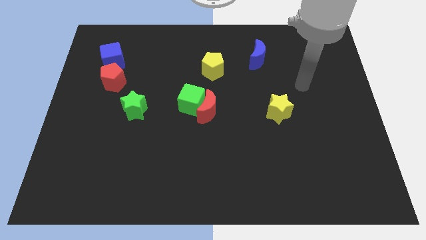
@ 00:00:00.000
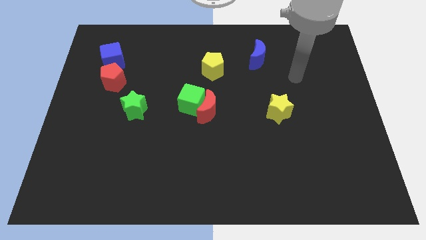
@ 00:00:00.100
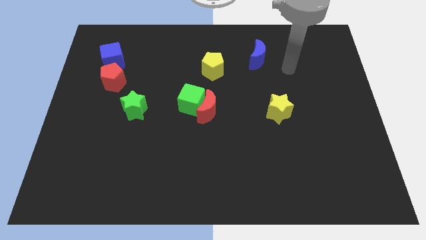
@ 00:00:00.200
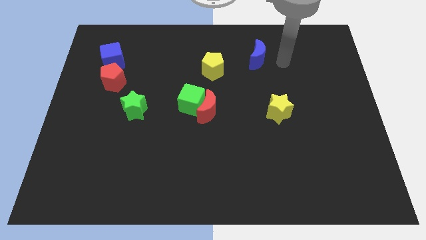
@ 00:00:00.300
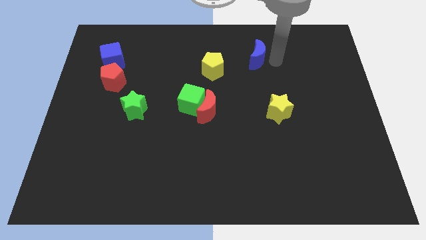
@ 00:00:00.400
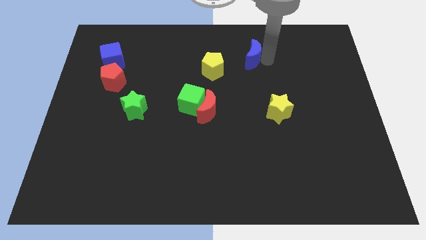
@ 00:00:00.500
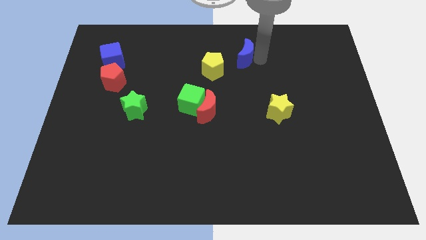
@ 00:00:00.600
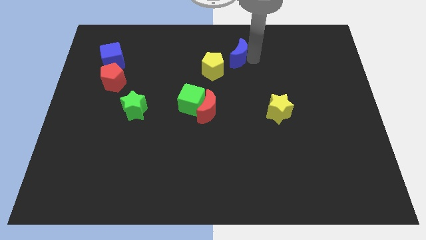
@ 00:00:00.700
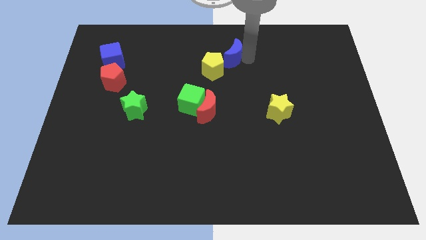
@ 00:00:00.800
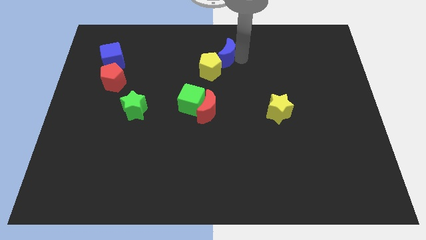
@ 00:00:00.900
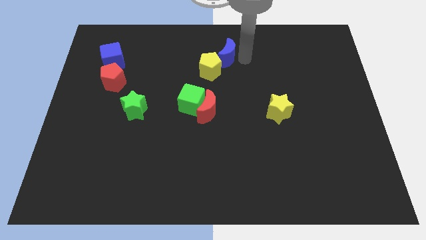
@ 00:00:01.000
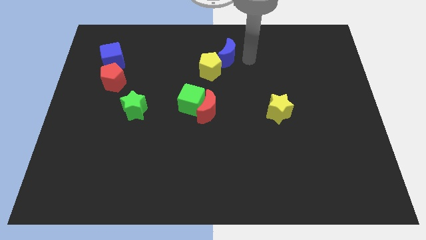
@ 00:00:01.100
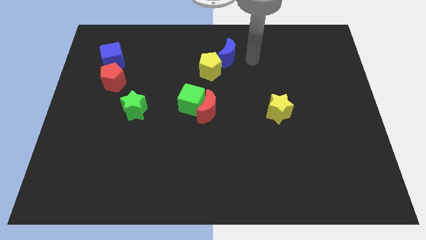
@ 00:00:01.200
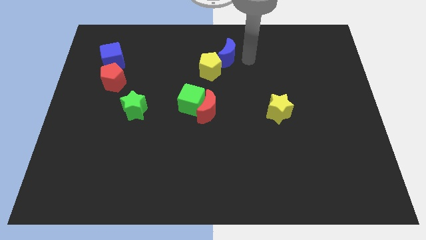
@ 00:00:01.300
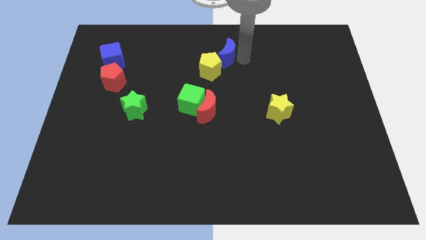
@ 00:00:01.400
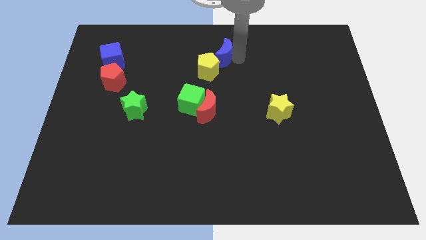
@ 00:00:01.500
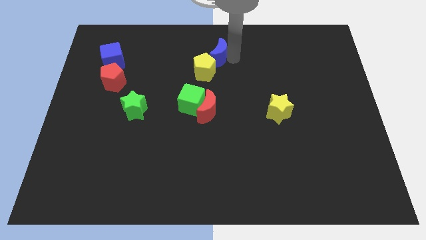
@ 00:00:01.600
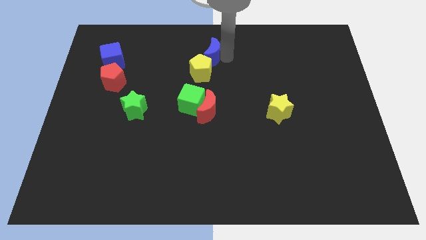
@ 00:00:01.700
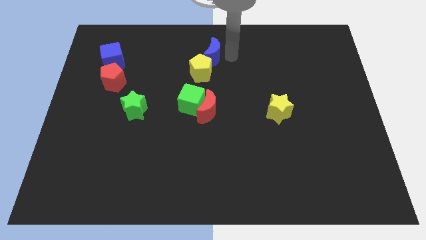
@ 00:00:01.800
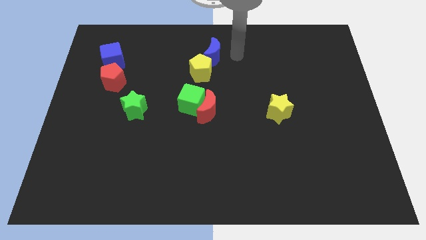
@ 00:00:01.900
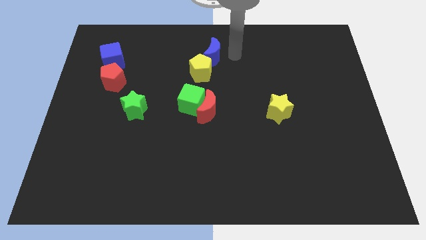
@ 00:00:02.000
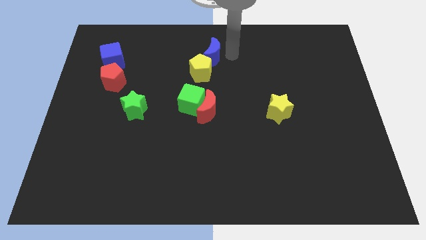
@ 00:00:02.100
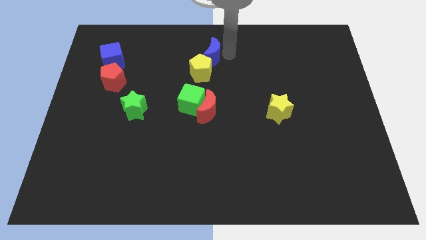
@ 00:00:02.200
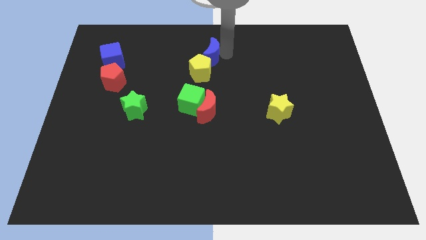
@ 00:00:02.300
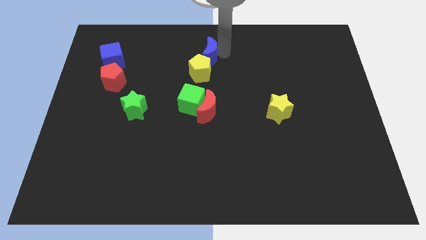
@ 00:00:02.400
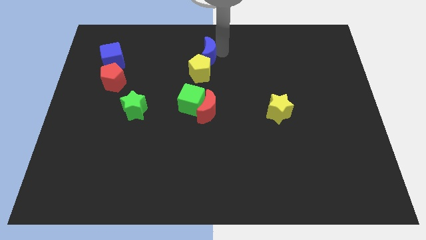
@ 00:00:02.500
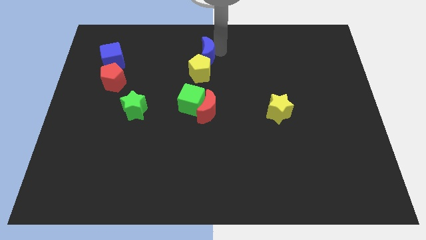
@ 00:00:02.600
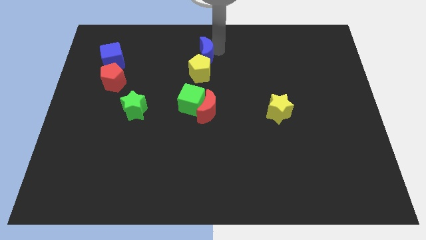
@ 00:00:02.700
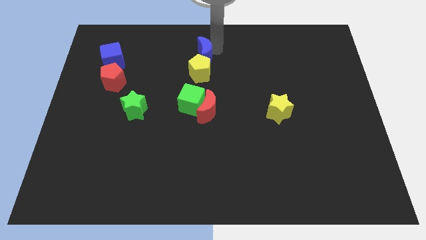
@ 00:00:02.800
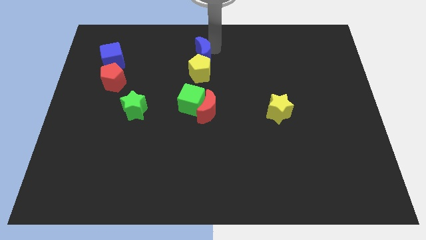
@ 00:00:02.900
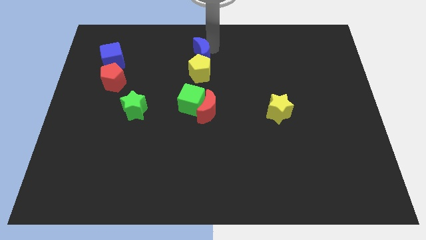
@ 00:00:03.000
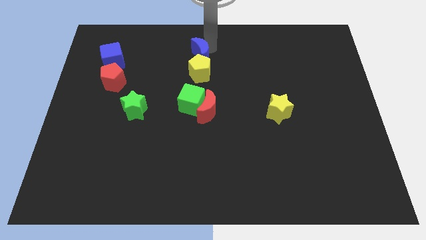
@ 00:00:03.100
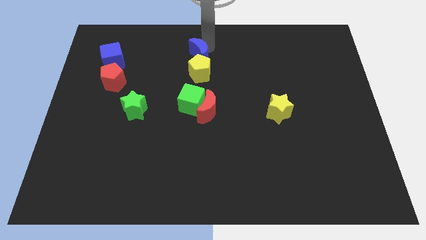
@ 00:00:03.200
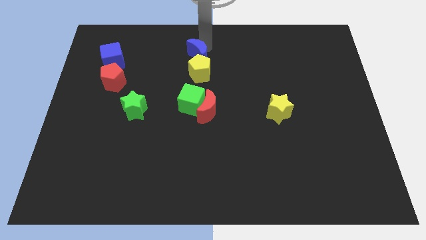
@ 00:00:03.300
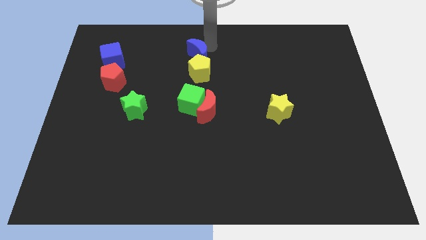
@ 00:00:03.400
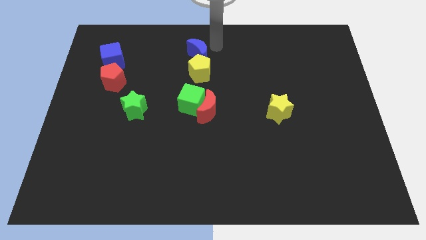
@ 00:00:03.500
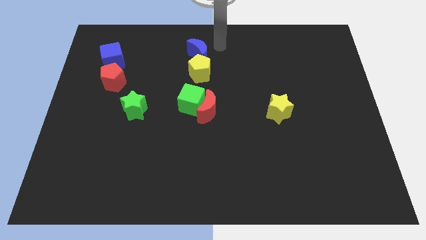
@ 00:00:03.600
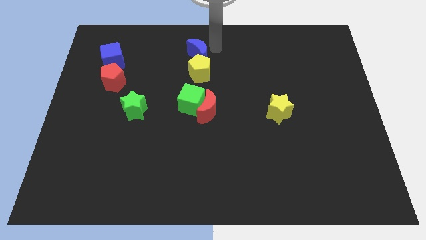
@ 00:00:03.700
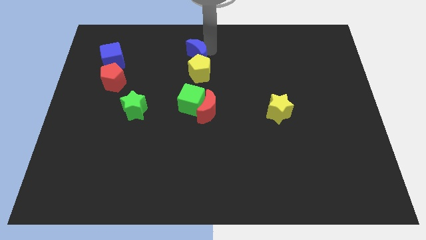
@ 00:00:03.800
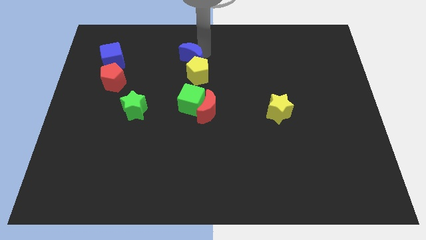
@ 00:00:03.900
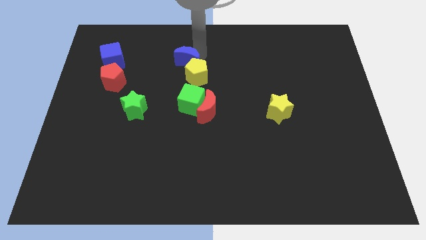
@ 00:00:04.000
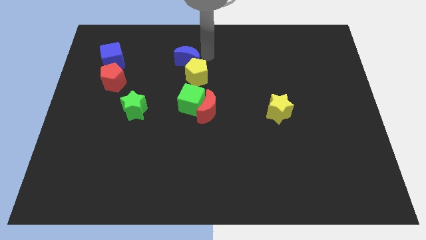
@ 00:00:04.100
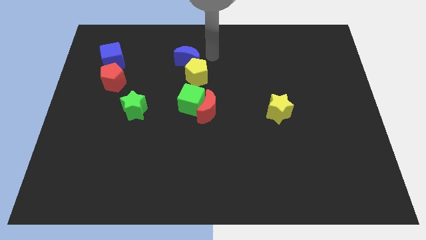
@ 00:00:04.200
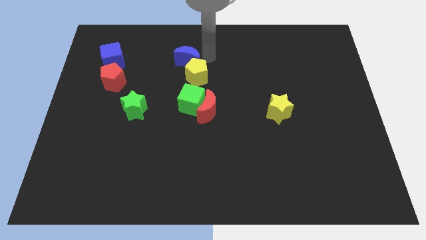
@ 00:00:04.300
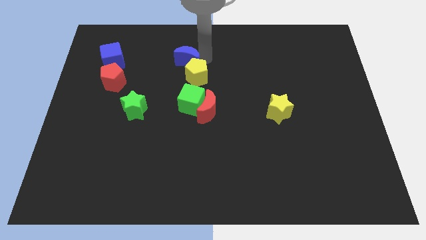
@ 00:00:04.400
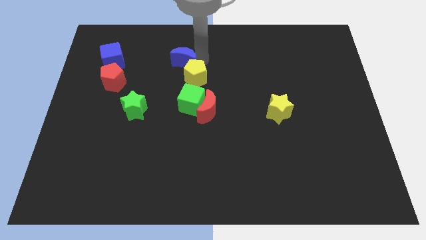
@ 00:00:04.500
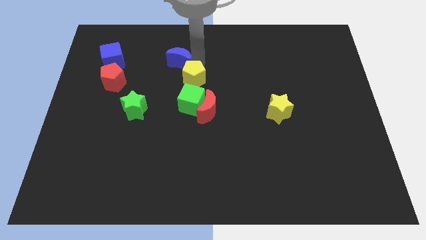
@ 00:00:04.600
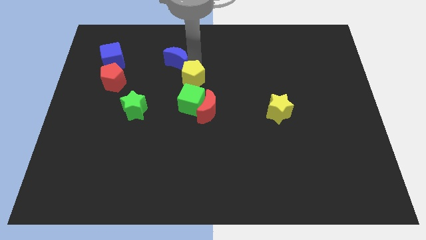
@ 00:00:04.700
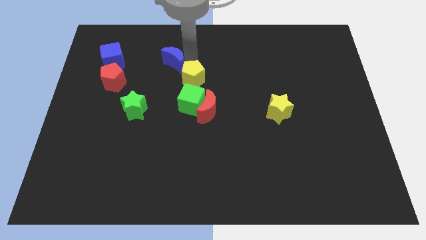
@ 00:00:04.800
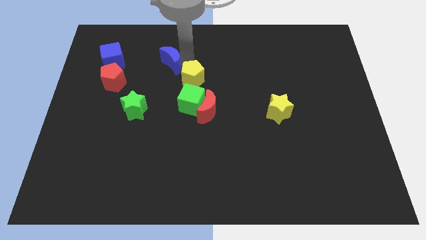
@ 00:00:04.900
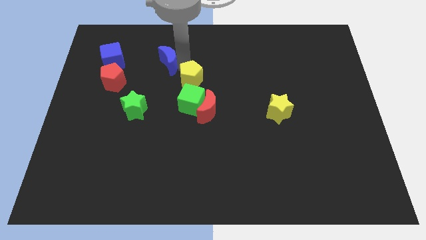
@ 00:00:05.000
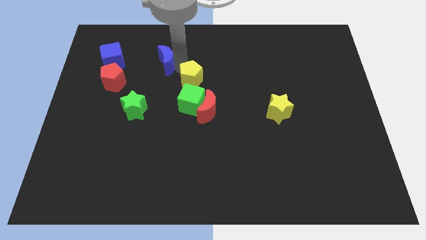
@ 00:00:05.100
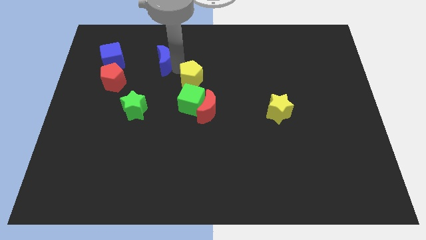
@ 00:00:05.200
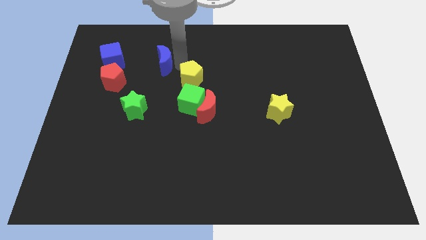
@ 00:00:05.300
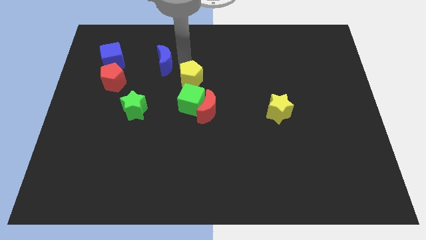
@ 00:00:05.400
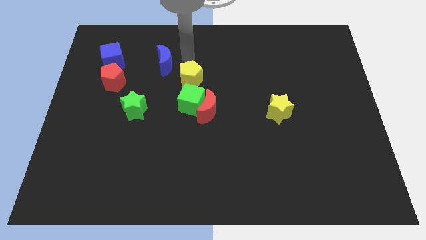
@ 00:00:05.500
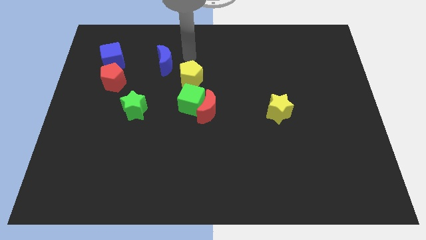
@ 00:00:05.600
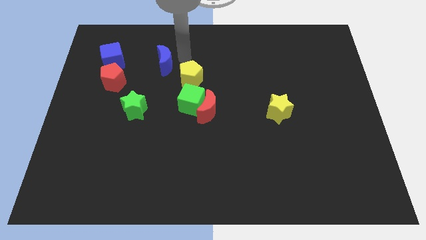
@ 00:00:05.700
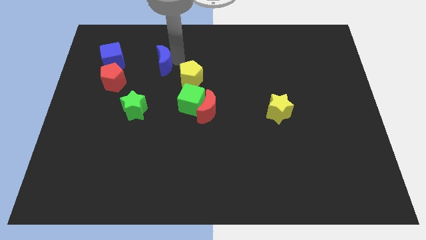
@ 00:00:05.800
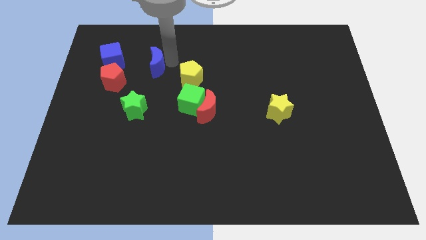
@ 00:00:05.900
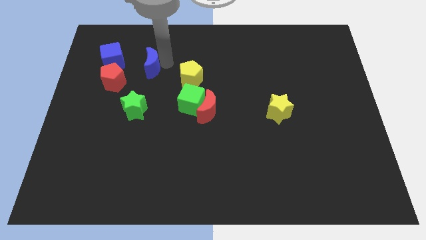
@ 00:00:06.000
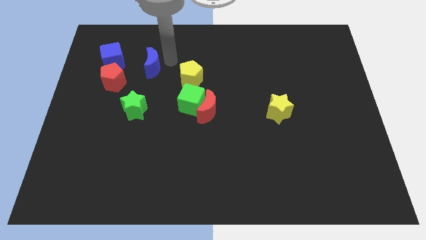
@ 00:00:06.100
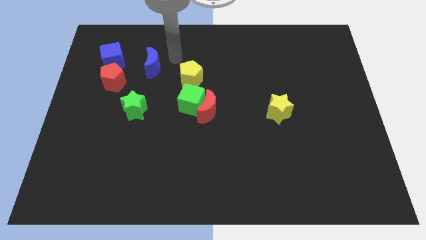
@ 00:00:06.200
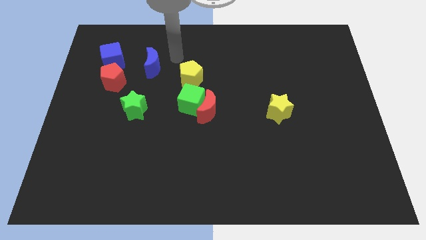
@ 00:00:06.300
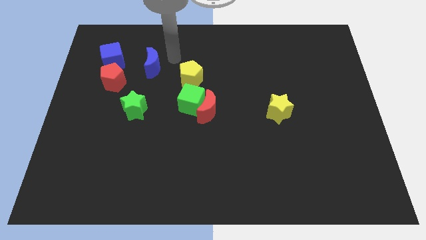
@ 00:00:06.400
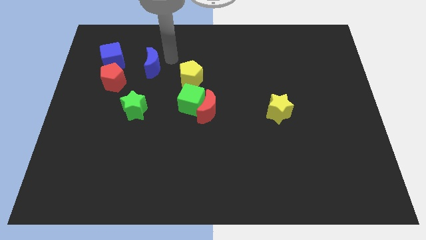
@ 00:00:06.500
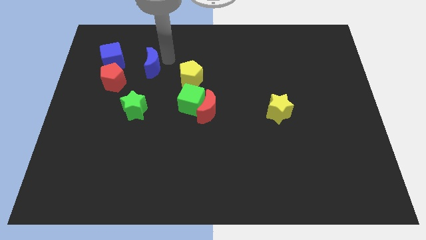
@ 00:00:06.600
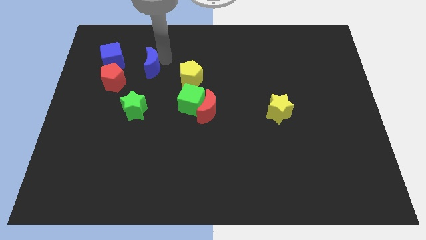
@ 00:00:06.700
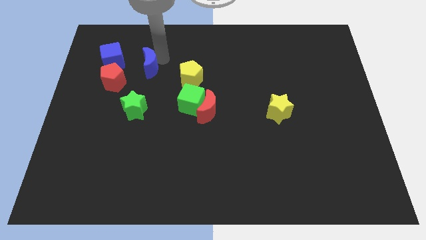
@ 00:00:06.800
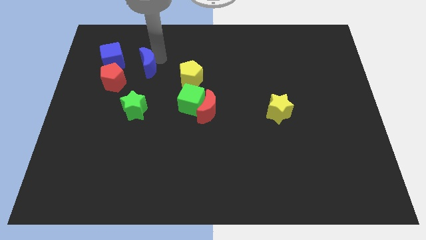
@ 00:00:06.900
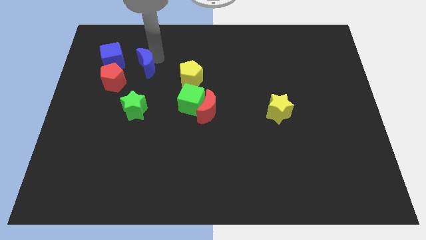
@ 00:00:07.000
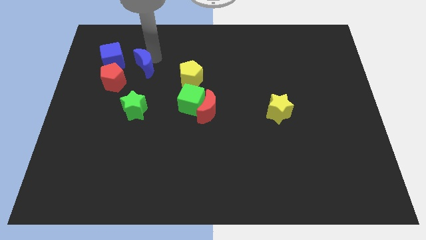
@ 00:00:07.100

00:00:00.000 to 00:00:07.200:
push the blue moon to the bottom right of the blue cube
